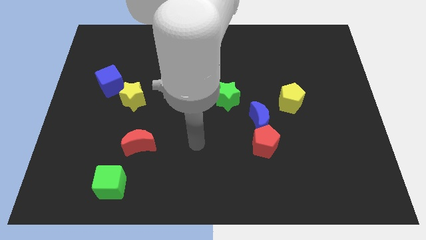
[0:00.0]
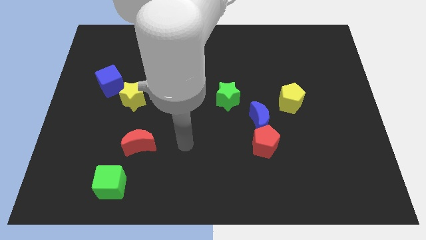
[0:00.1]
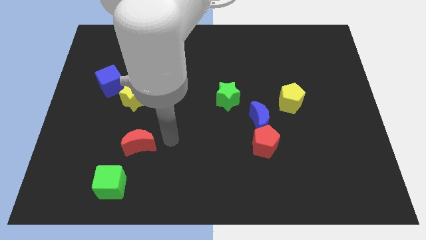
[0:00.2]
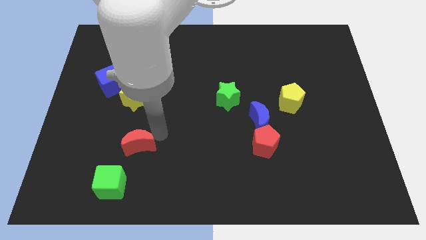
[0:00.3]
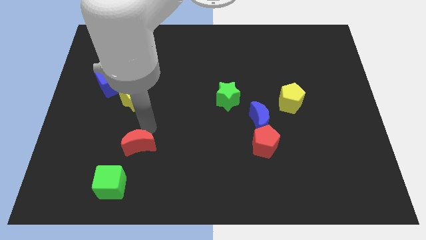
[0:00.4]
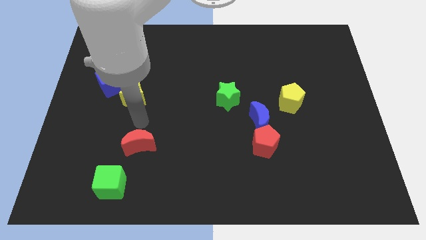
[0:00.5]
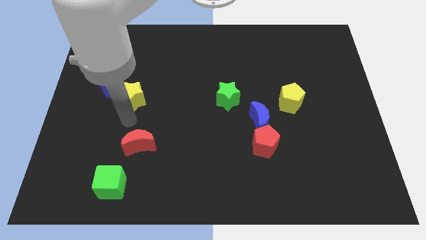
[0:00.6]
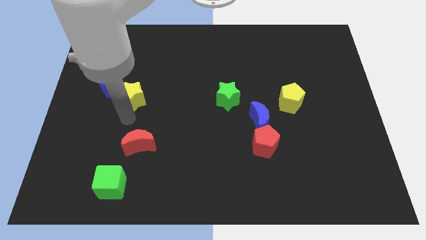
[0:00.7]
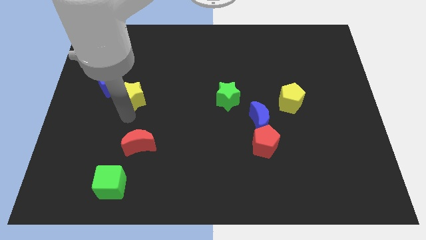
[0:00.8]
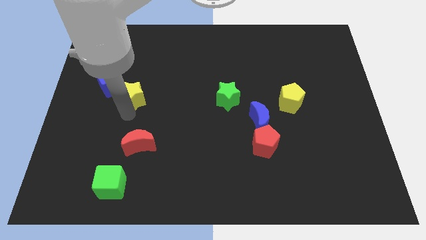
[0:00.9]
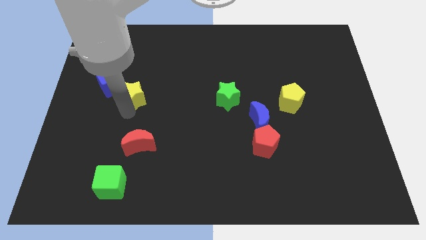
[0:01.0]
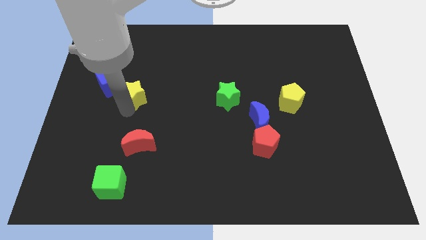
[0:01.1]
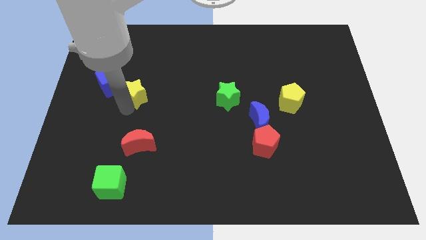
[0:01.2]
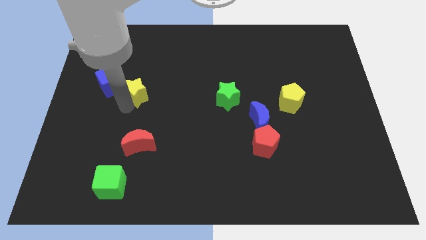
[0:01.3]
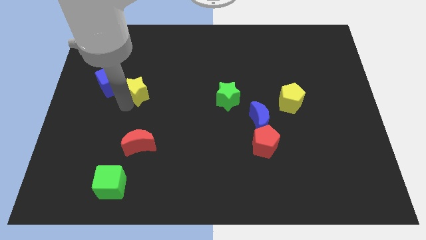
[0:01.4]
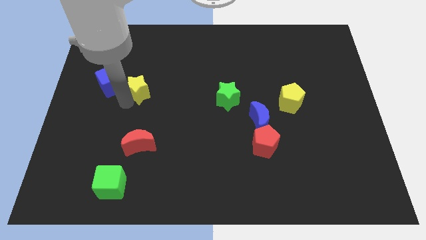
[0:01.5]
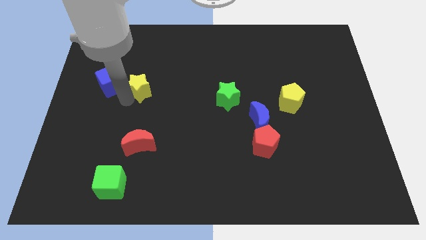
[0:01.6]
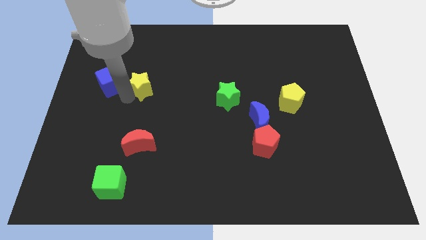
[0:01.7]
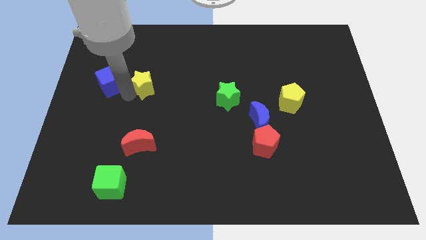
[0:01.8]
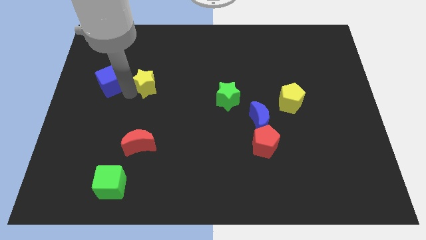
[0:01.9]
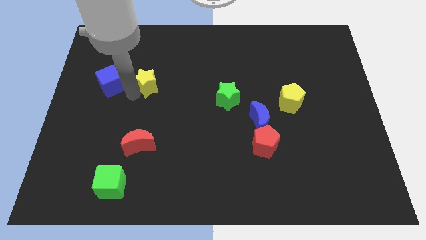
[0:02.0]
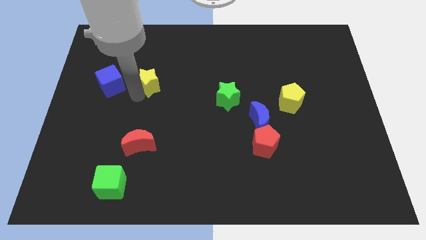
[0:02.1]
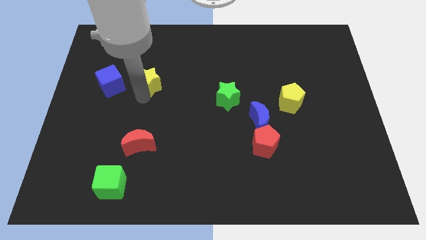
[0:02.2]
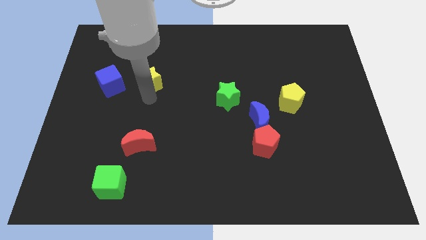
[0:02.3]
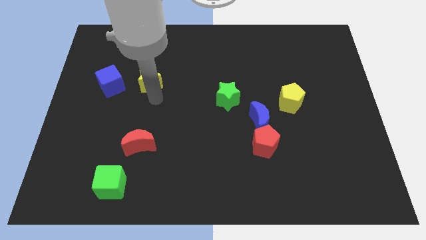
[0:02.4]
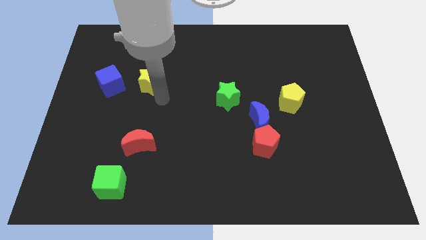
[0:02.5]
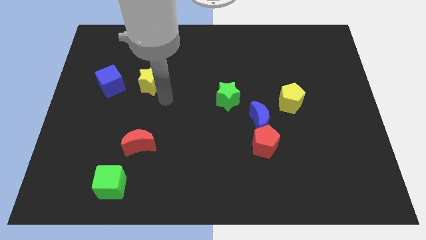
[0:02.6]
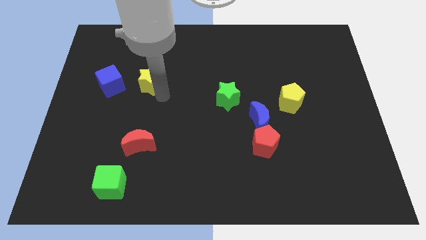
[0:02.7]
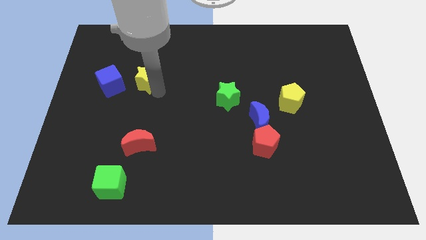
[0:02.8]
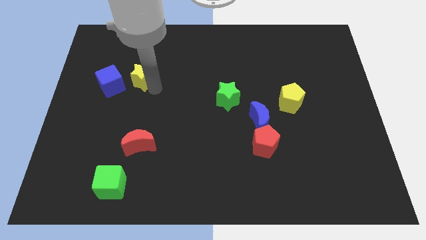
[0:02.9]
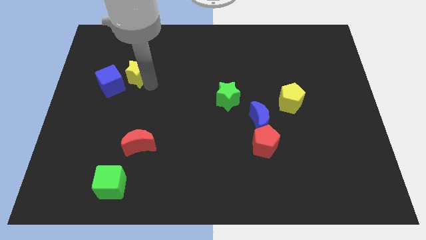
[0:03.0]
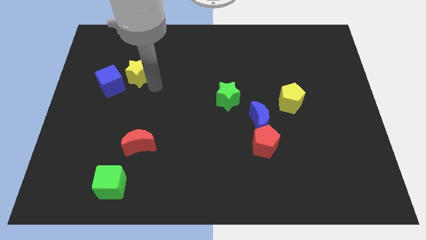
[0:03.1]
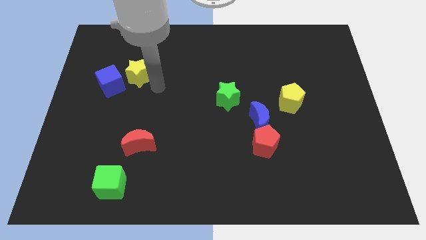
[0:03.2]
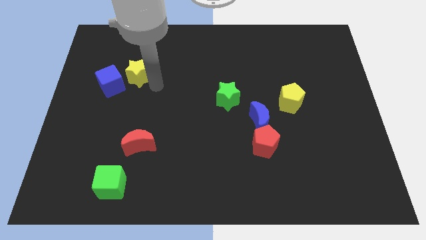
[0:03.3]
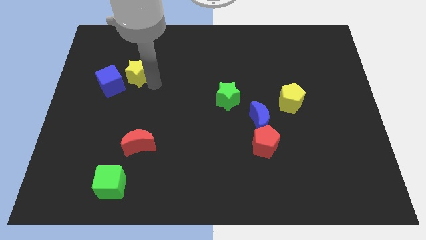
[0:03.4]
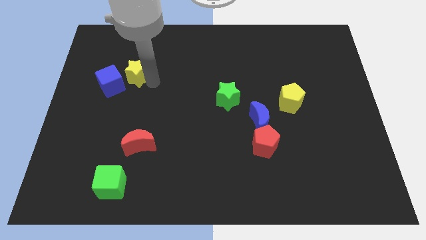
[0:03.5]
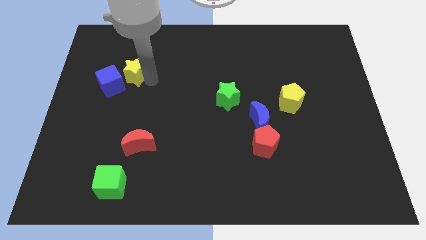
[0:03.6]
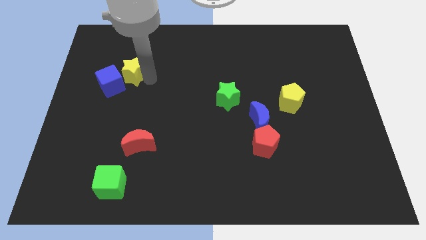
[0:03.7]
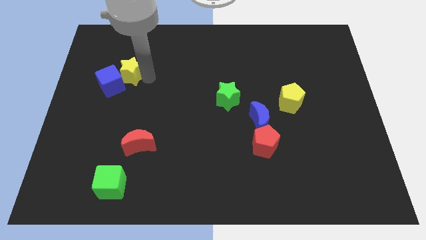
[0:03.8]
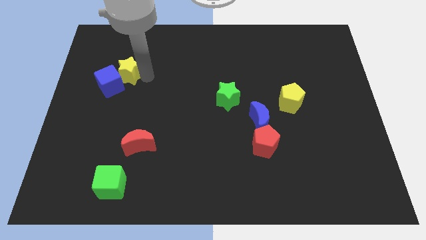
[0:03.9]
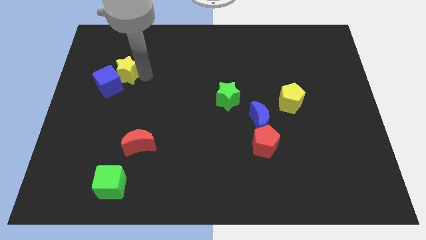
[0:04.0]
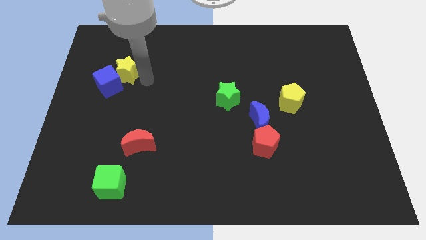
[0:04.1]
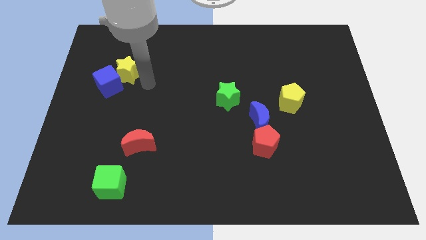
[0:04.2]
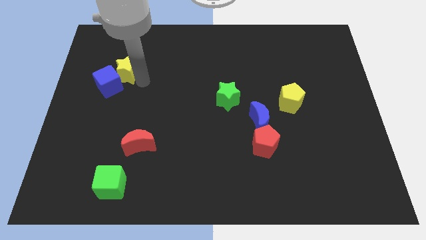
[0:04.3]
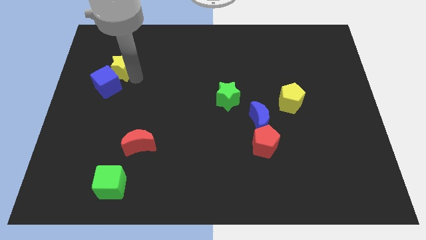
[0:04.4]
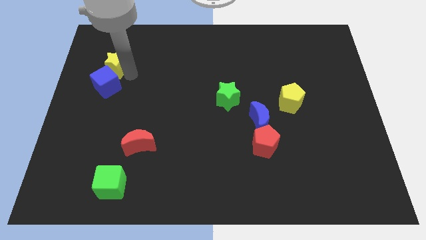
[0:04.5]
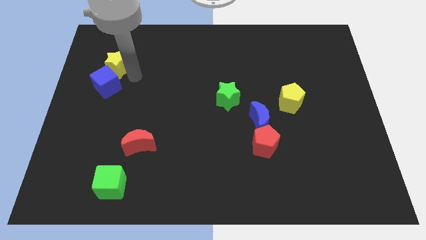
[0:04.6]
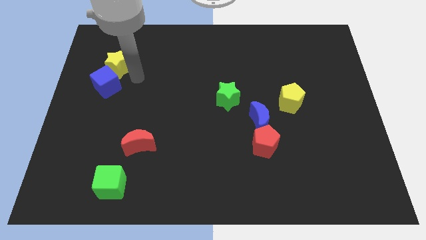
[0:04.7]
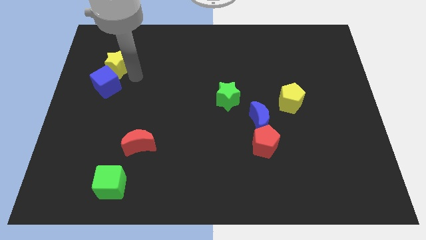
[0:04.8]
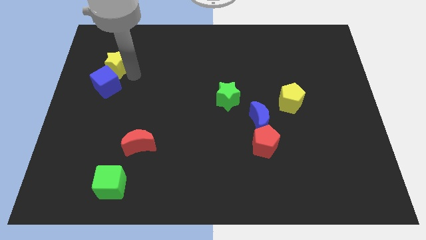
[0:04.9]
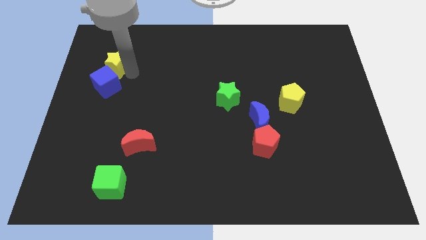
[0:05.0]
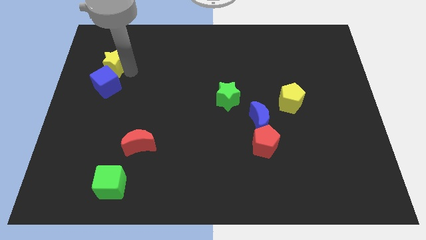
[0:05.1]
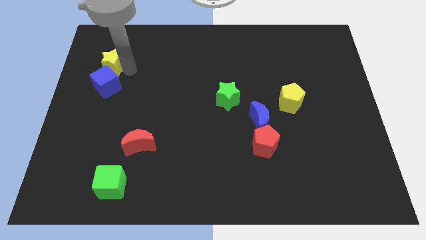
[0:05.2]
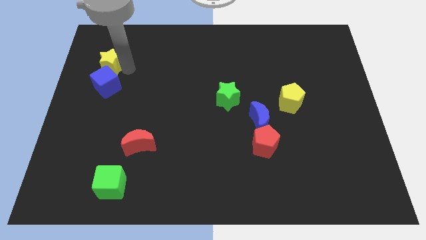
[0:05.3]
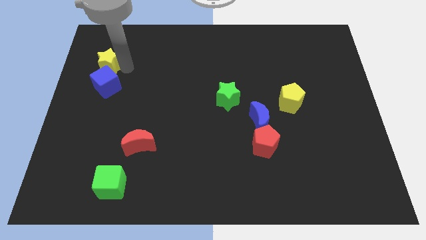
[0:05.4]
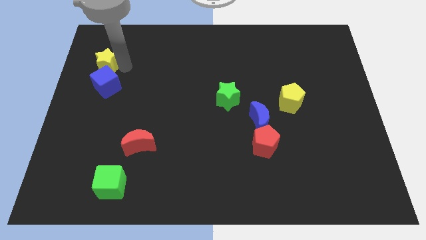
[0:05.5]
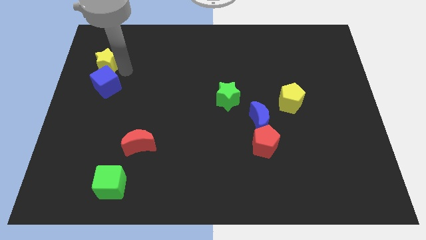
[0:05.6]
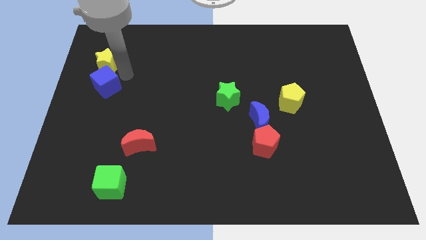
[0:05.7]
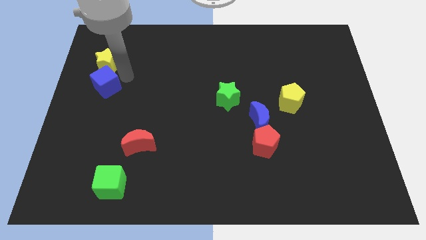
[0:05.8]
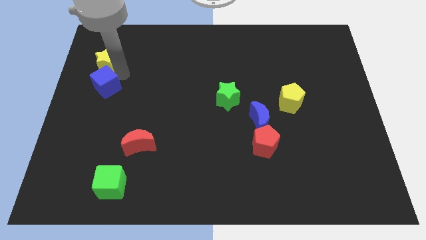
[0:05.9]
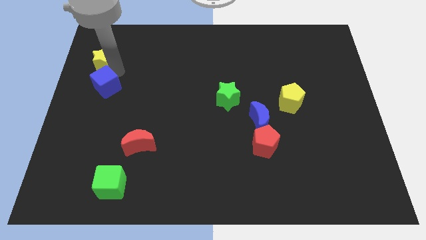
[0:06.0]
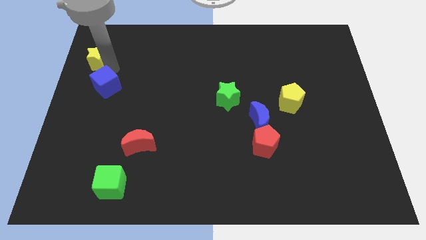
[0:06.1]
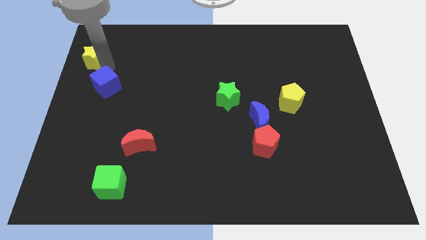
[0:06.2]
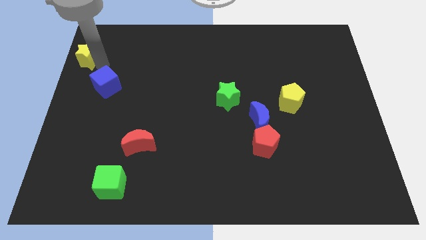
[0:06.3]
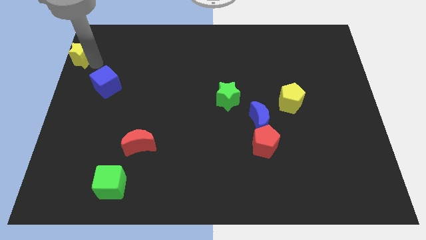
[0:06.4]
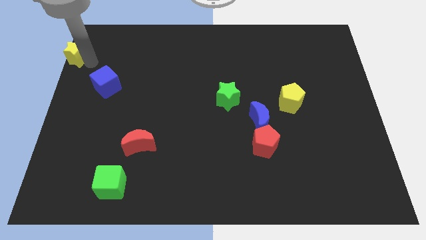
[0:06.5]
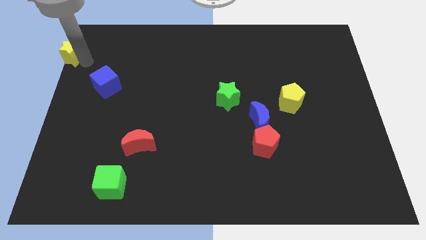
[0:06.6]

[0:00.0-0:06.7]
slide the yellow star to the top left corner
